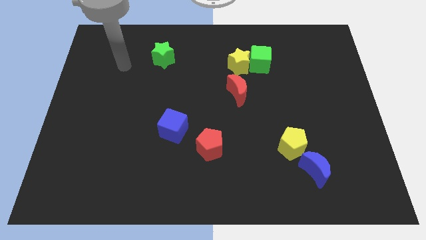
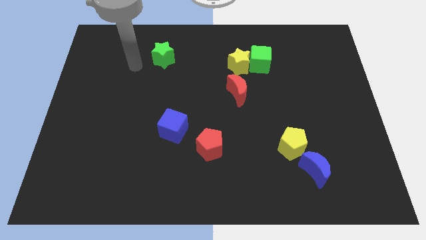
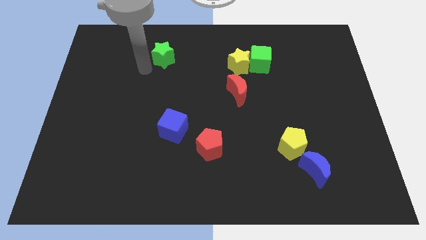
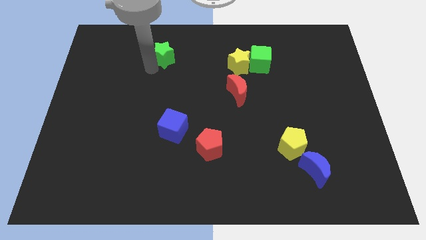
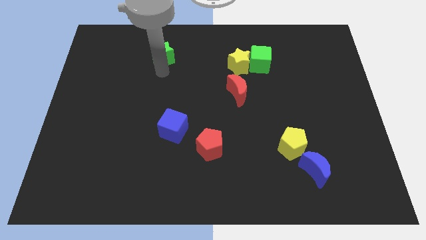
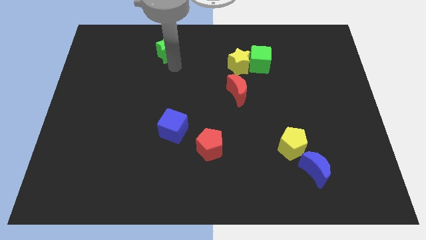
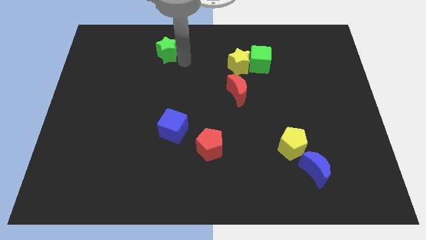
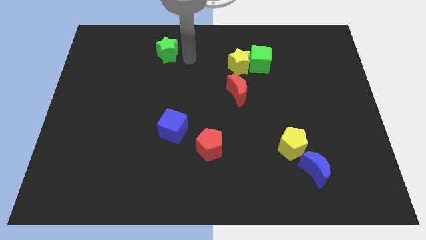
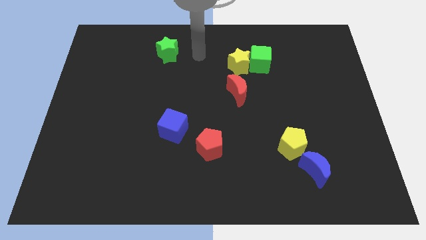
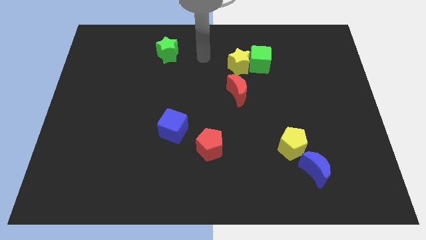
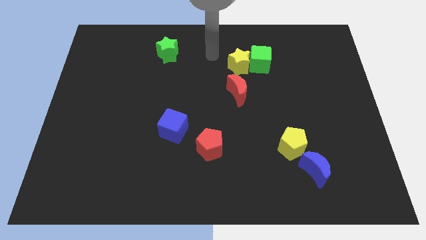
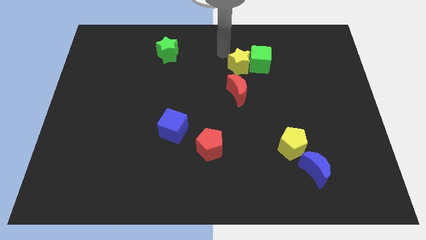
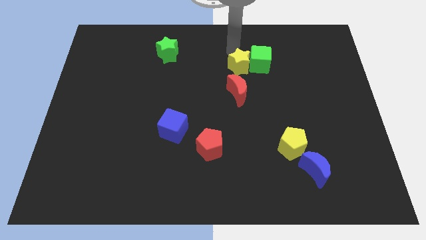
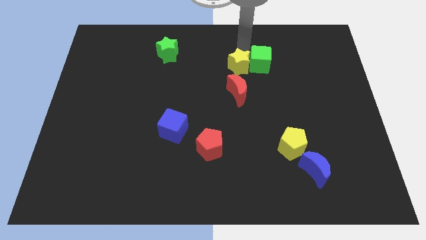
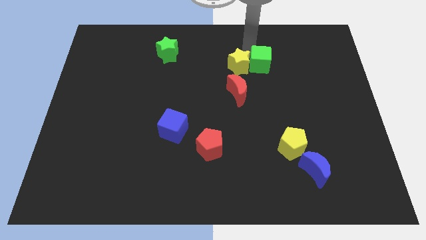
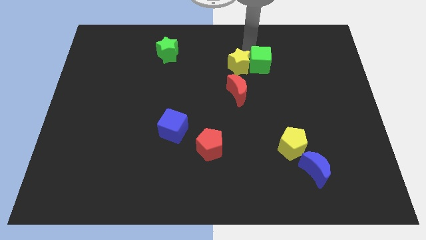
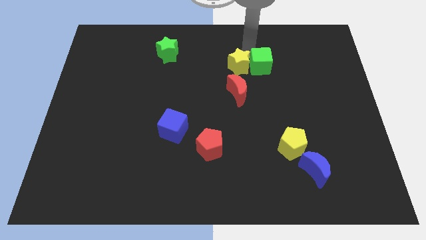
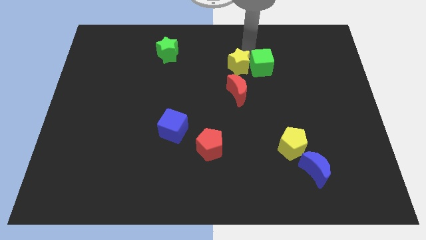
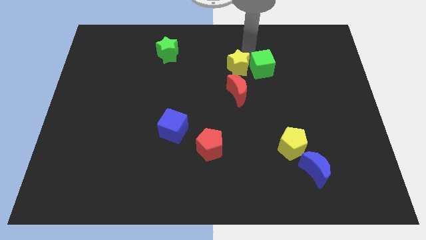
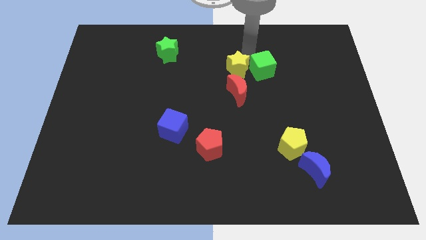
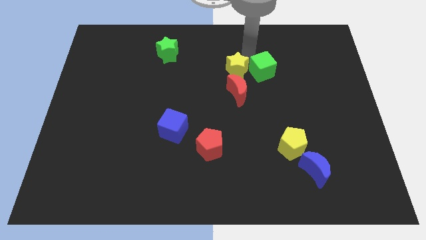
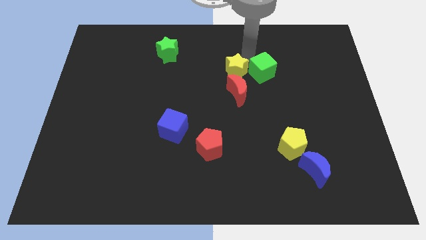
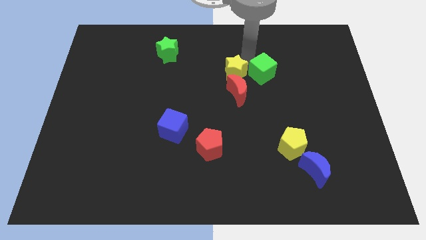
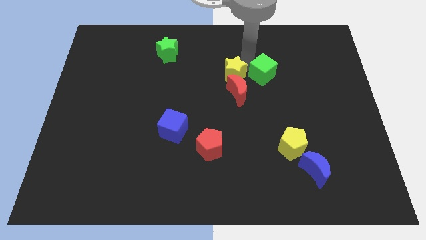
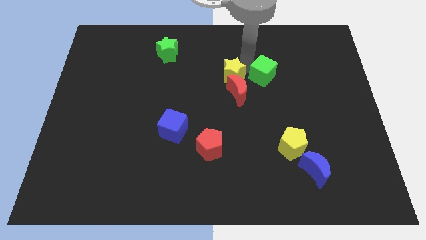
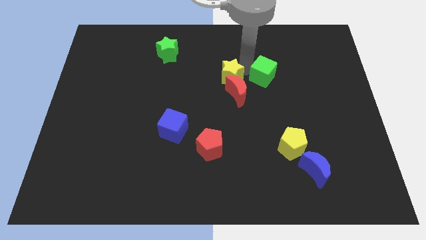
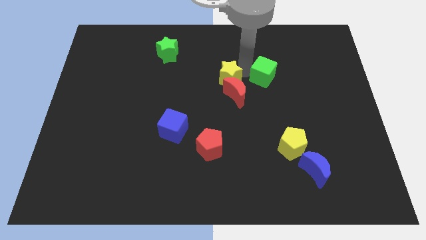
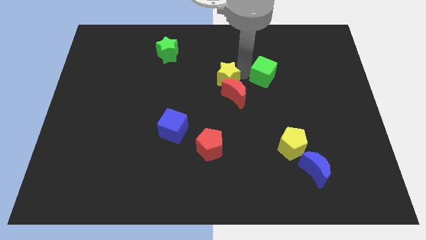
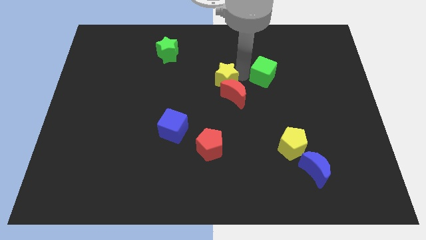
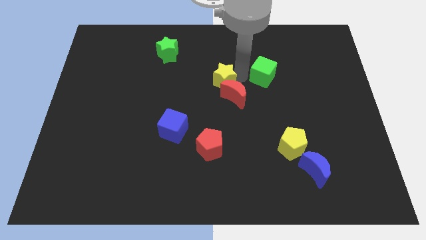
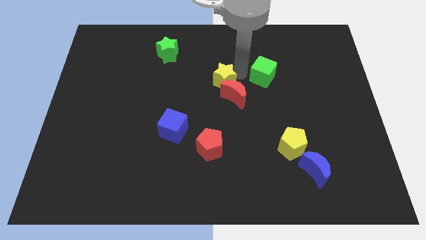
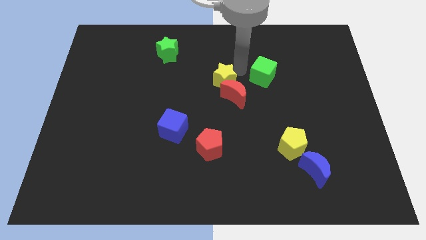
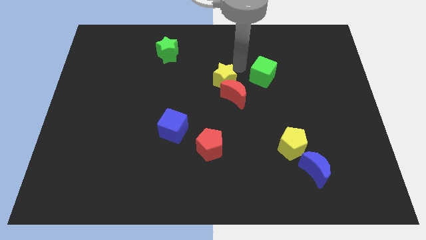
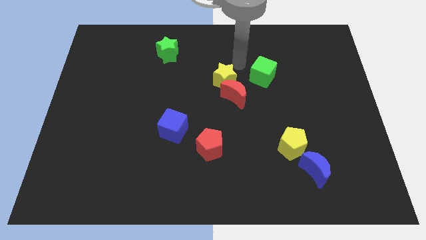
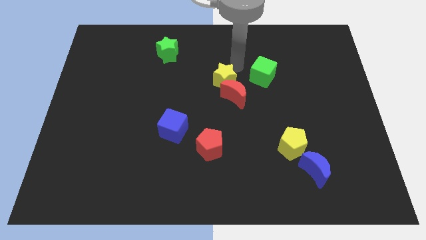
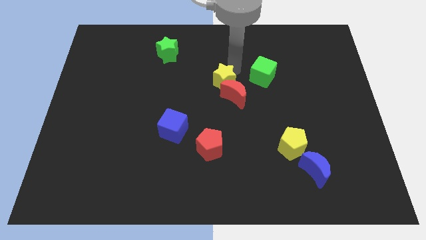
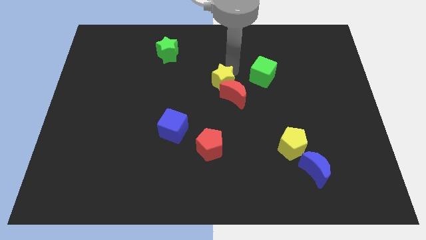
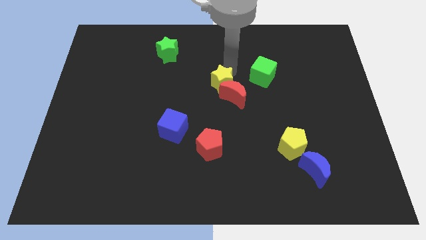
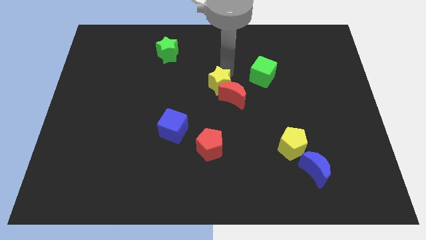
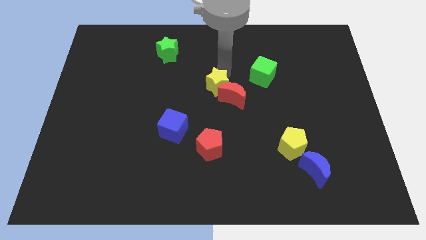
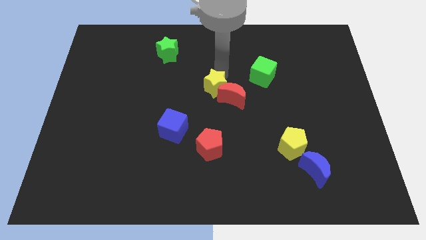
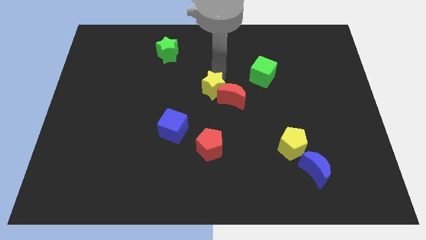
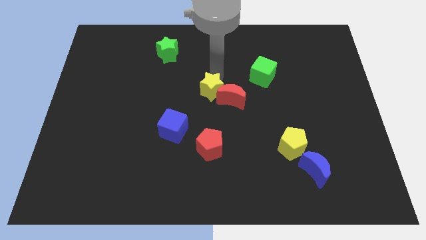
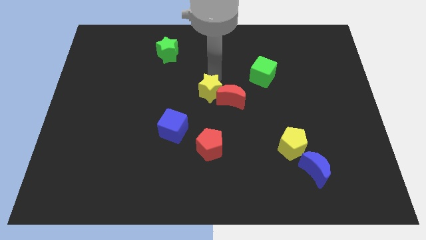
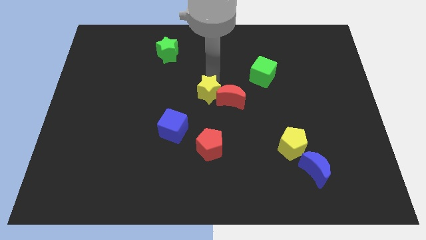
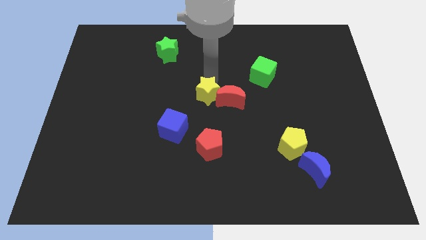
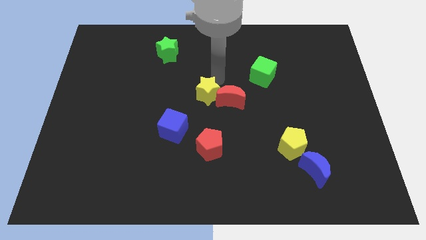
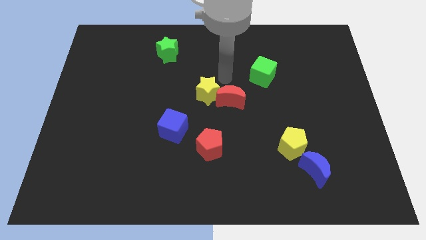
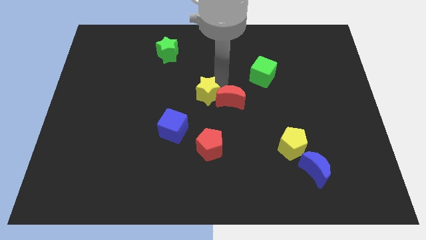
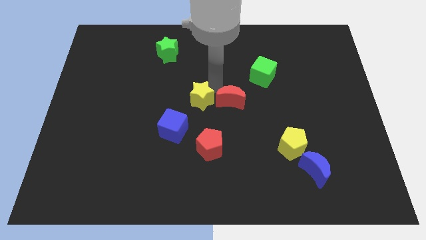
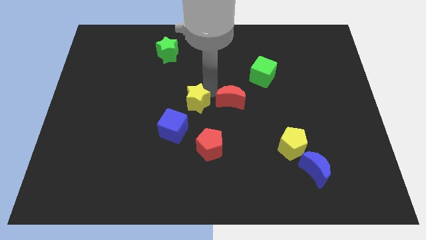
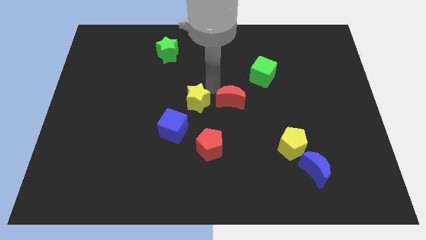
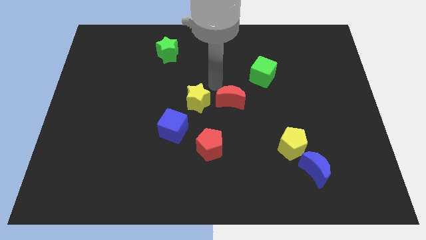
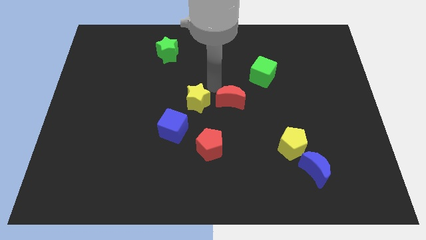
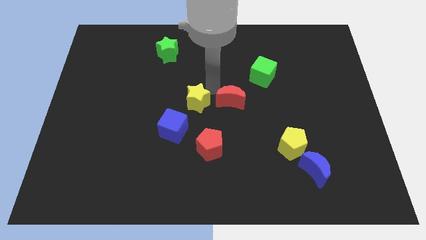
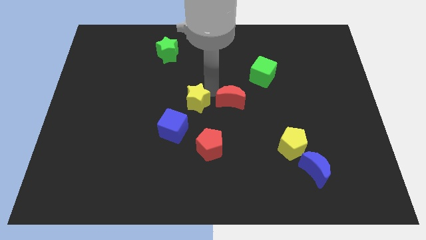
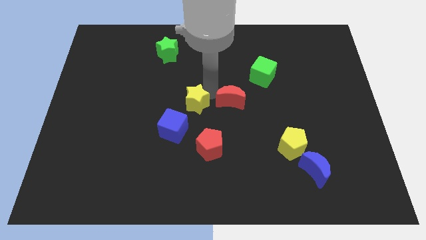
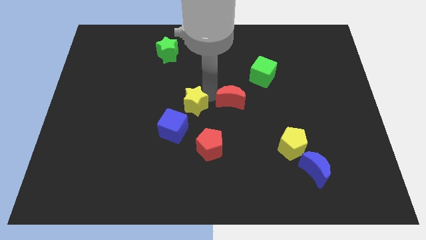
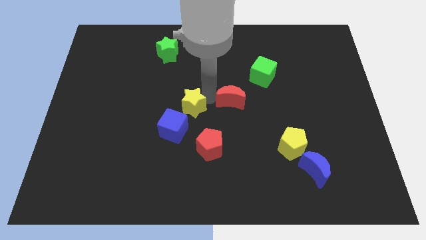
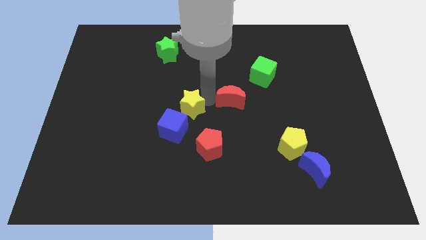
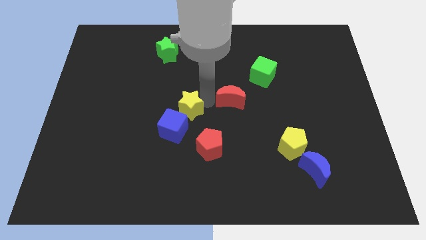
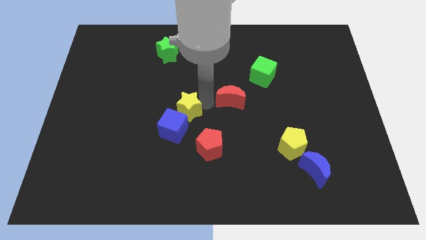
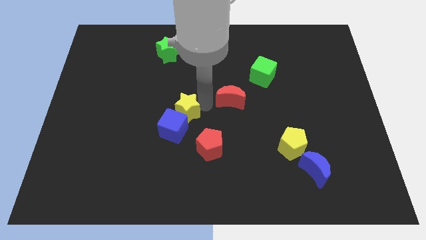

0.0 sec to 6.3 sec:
put the yellow star to the blue cube
